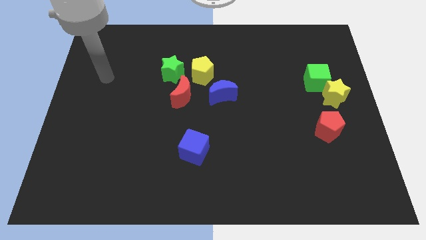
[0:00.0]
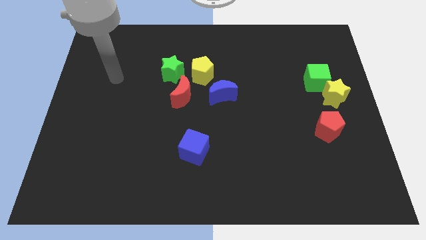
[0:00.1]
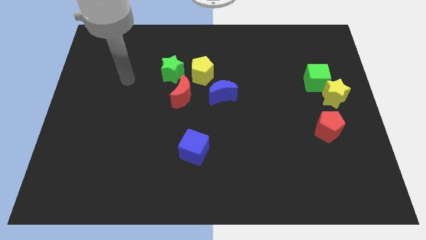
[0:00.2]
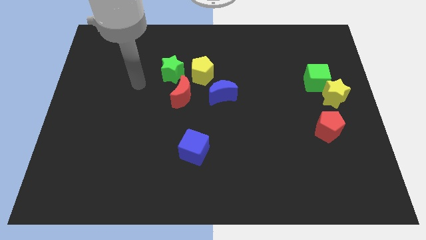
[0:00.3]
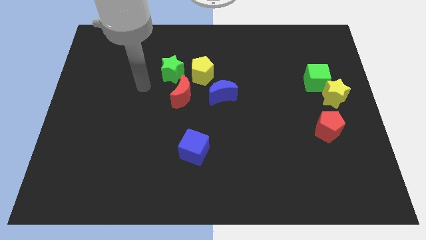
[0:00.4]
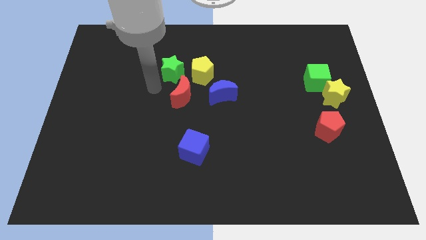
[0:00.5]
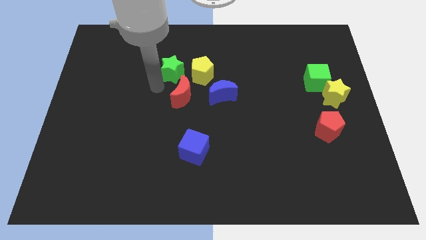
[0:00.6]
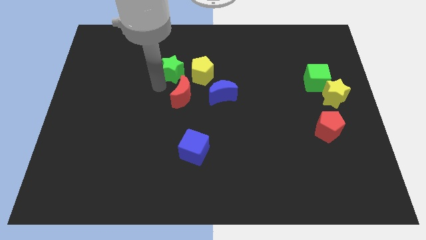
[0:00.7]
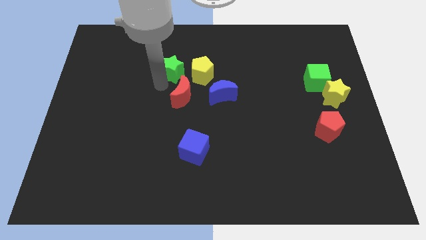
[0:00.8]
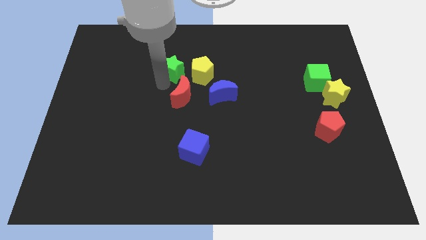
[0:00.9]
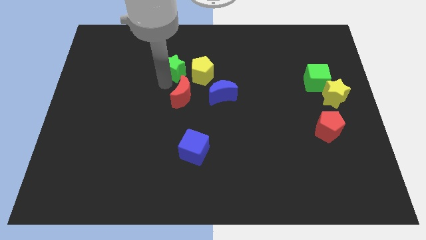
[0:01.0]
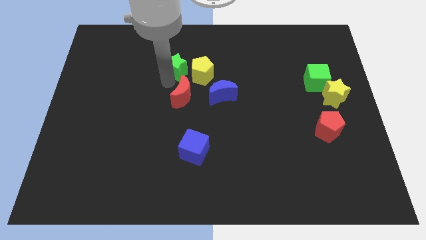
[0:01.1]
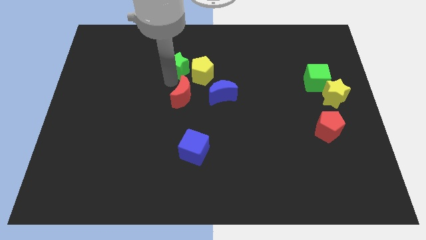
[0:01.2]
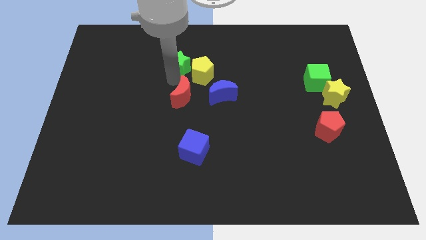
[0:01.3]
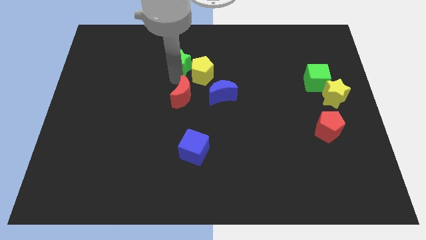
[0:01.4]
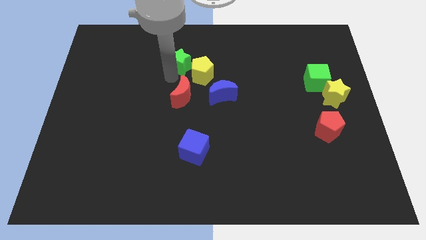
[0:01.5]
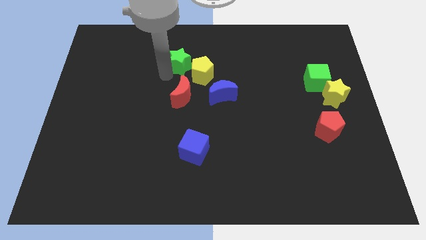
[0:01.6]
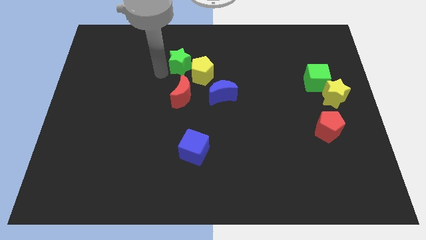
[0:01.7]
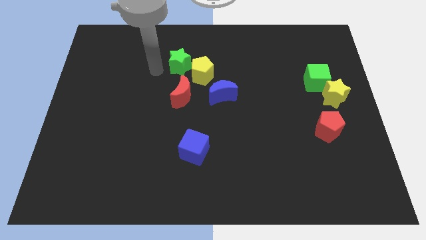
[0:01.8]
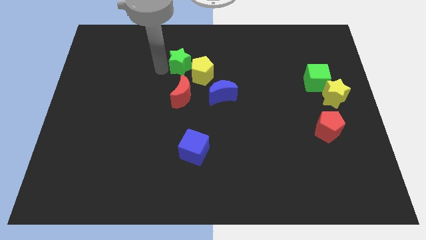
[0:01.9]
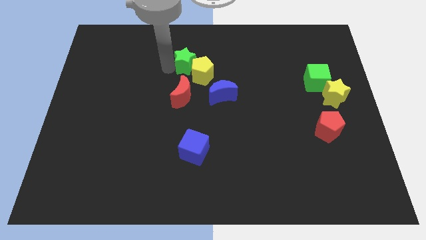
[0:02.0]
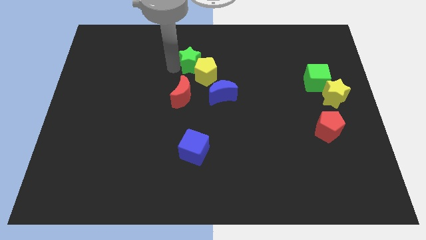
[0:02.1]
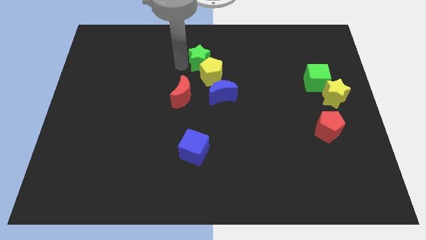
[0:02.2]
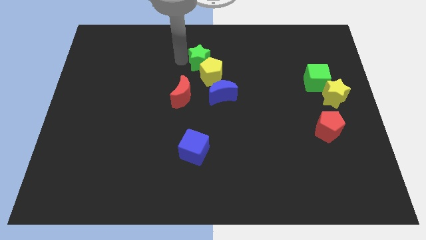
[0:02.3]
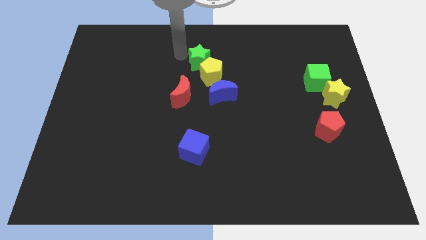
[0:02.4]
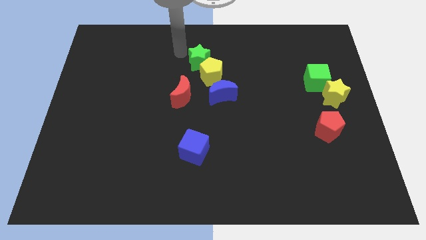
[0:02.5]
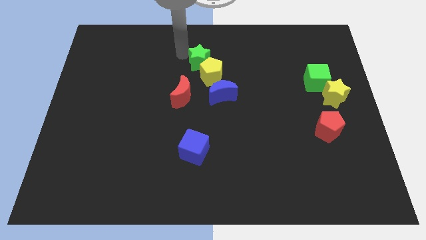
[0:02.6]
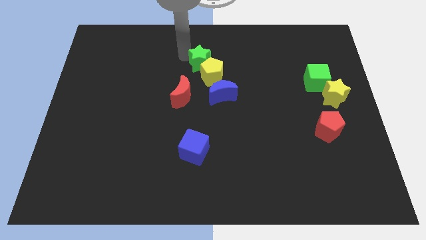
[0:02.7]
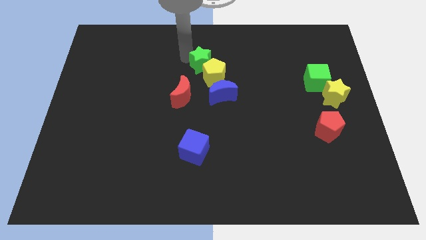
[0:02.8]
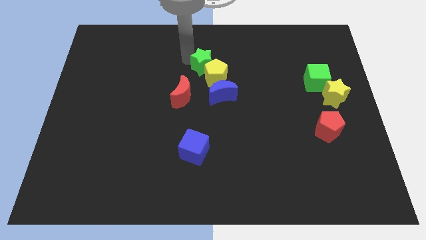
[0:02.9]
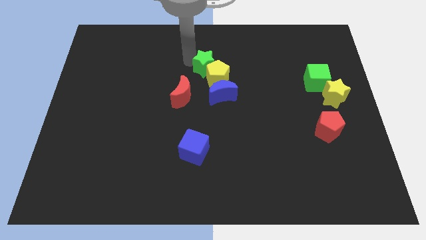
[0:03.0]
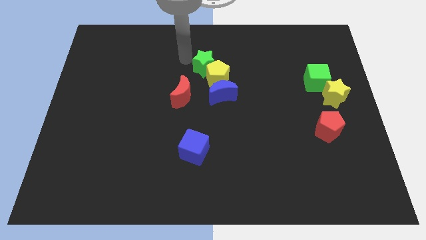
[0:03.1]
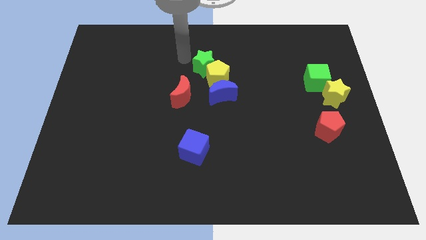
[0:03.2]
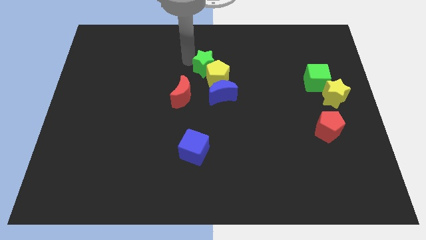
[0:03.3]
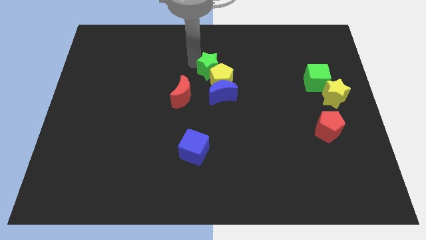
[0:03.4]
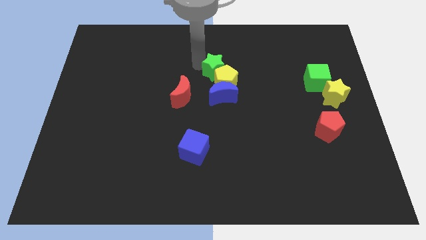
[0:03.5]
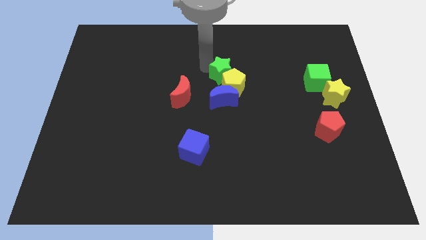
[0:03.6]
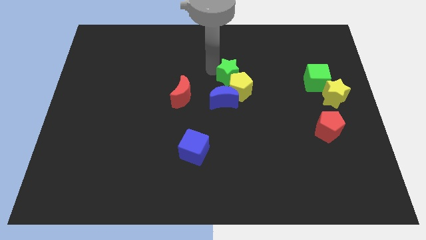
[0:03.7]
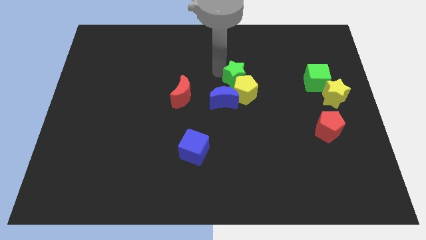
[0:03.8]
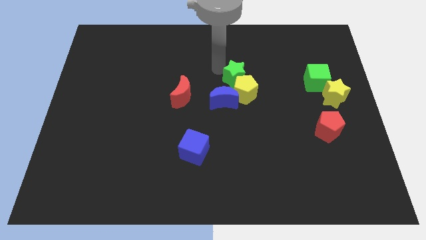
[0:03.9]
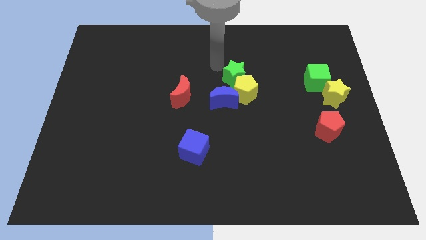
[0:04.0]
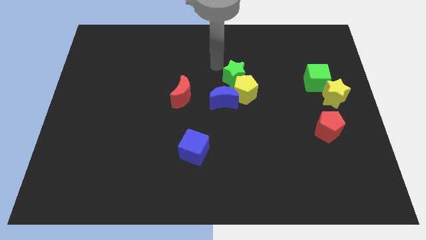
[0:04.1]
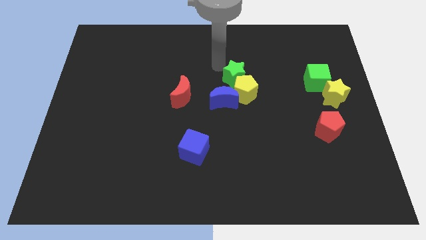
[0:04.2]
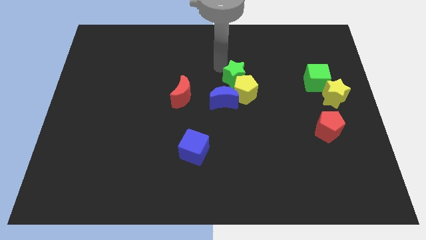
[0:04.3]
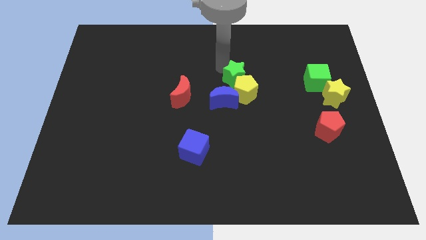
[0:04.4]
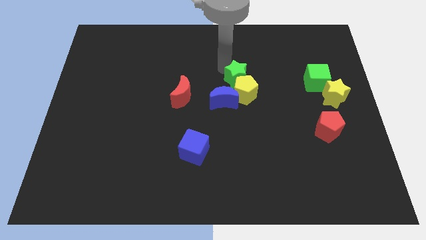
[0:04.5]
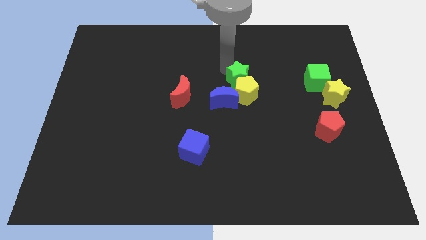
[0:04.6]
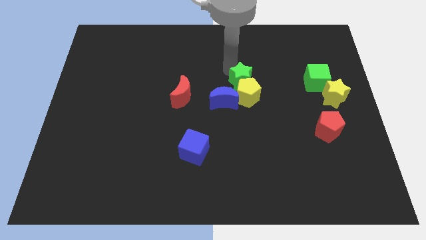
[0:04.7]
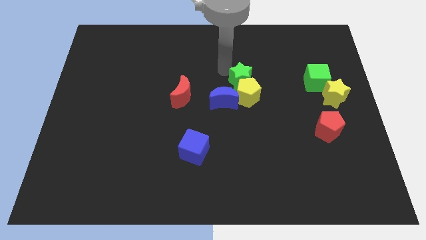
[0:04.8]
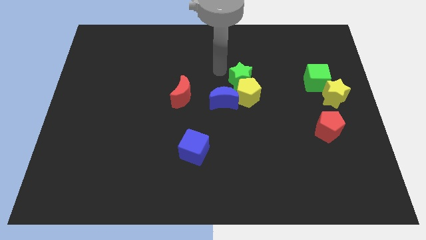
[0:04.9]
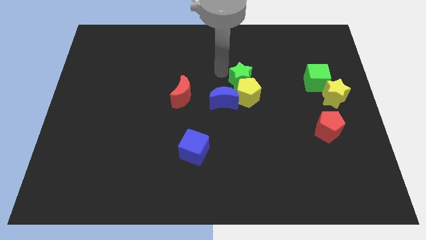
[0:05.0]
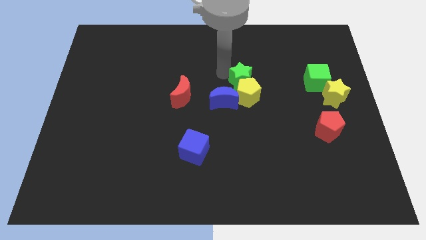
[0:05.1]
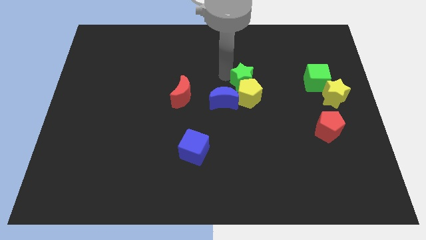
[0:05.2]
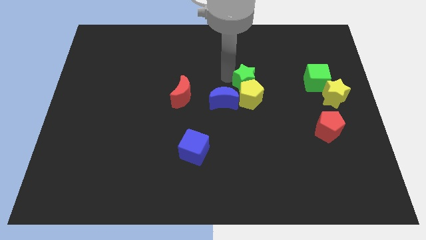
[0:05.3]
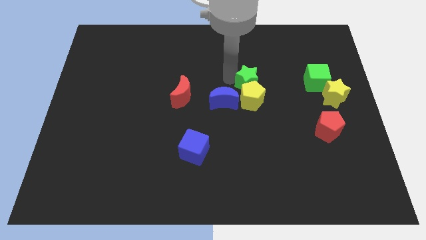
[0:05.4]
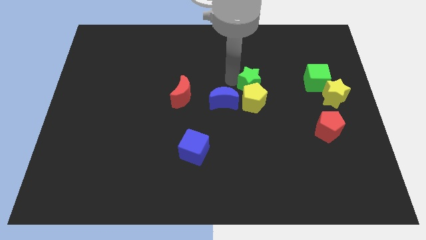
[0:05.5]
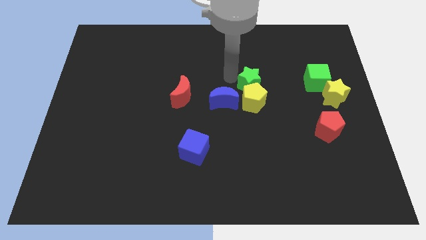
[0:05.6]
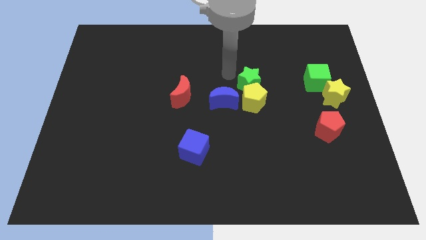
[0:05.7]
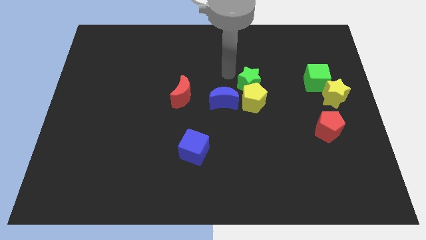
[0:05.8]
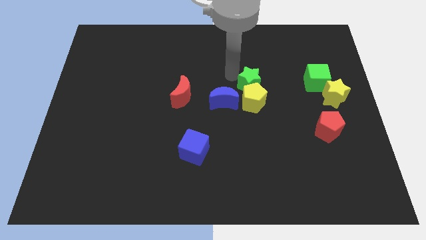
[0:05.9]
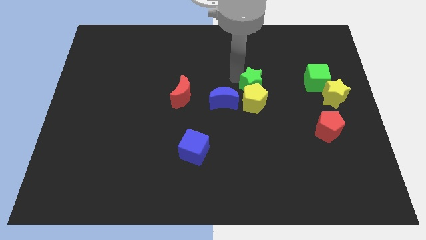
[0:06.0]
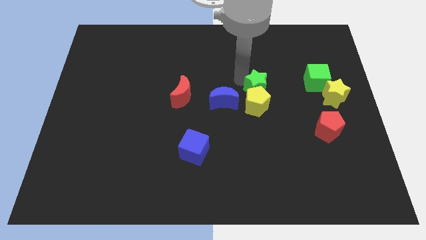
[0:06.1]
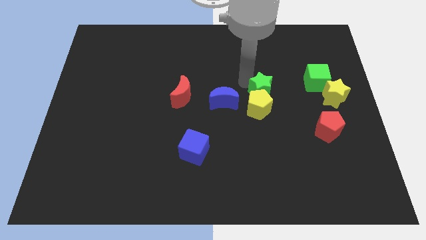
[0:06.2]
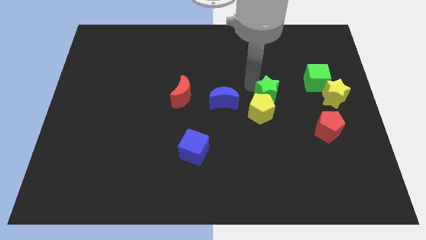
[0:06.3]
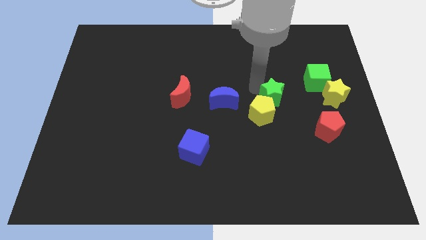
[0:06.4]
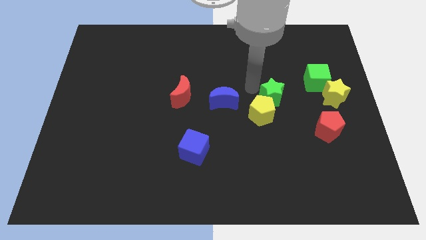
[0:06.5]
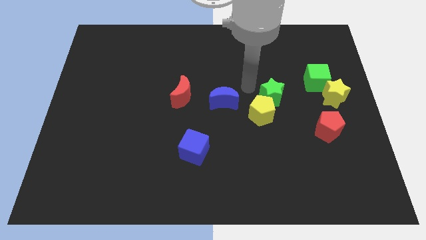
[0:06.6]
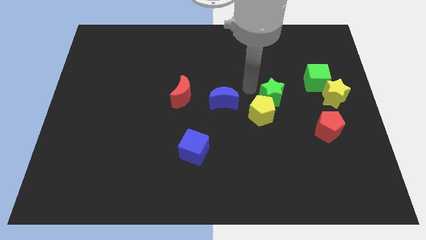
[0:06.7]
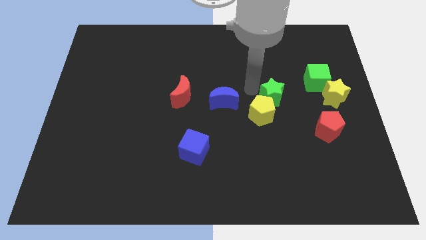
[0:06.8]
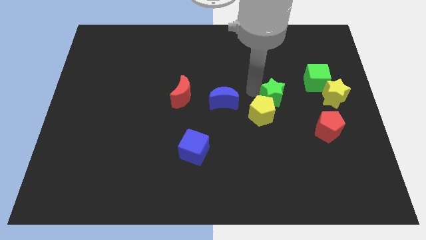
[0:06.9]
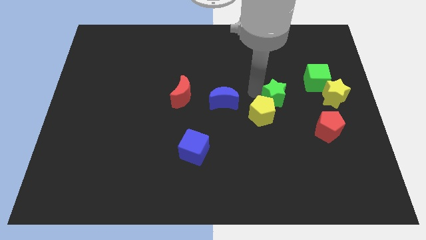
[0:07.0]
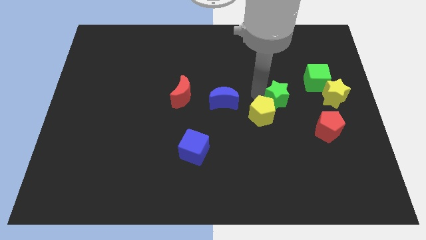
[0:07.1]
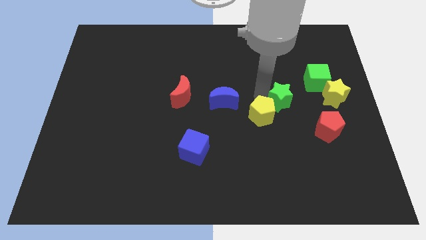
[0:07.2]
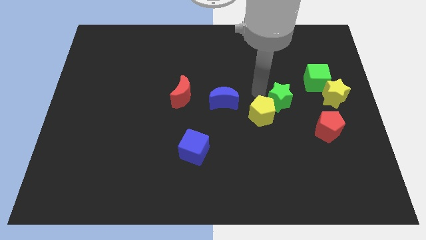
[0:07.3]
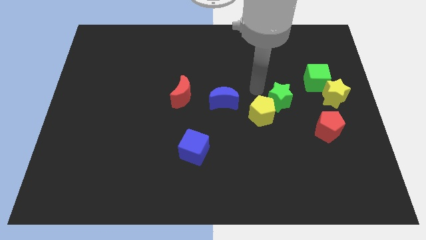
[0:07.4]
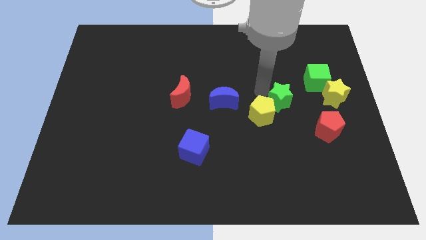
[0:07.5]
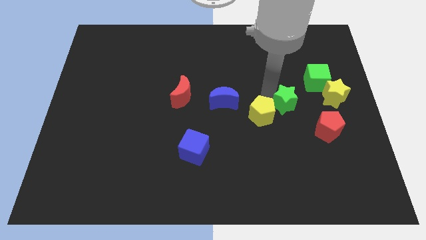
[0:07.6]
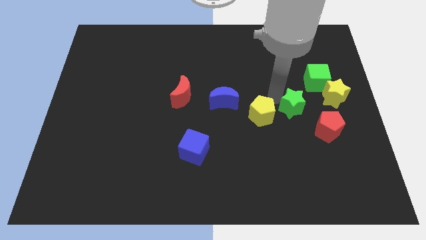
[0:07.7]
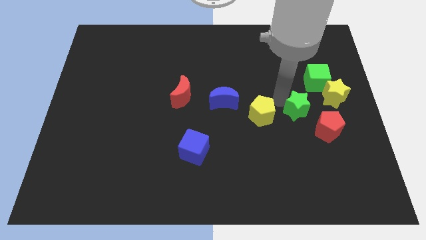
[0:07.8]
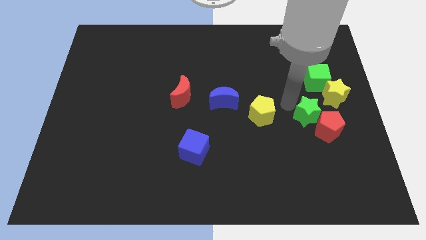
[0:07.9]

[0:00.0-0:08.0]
slide the green star to the red pentagon
